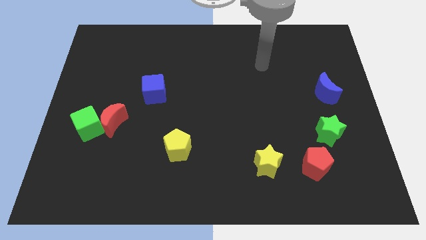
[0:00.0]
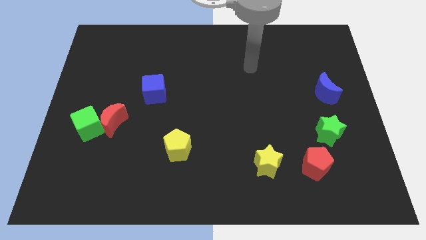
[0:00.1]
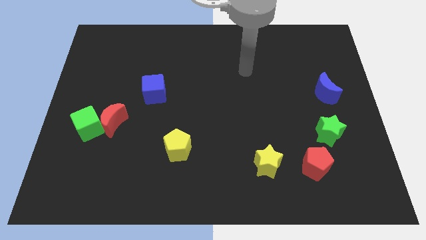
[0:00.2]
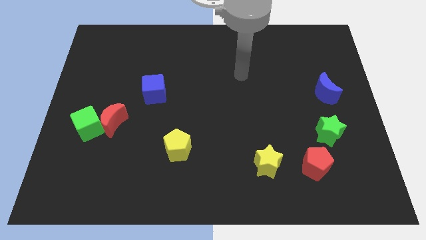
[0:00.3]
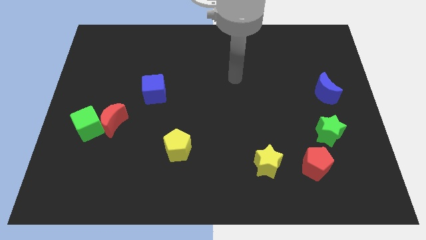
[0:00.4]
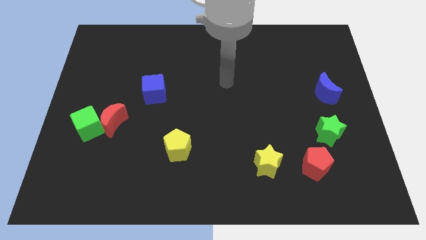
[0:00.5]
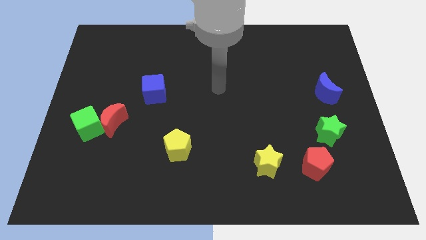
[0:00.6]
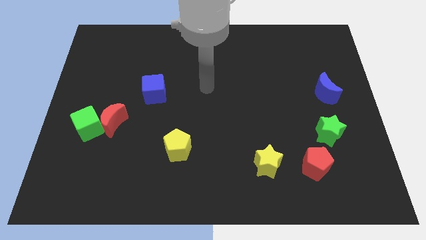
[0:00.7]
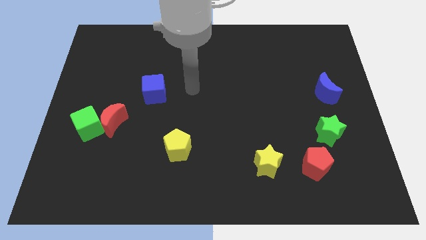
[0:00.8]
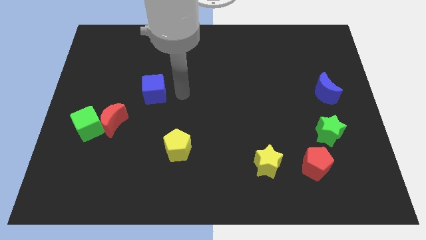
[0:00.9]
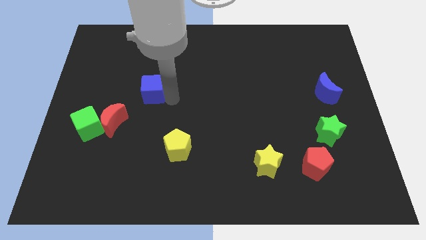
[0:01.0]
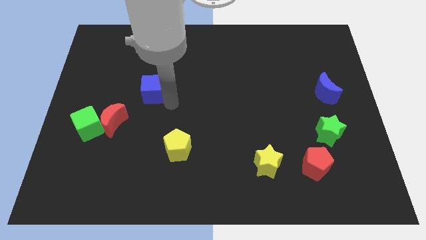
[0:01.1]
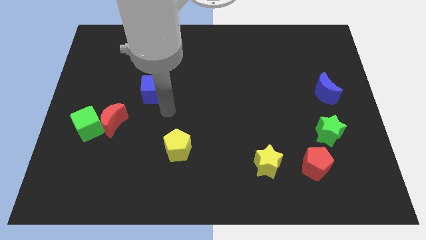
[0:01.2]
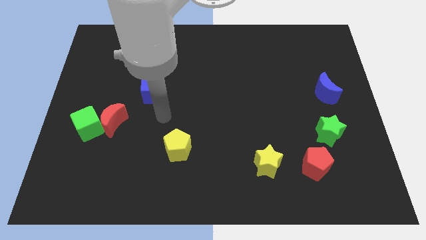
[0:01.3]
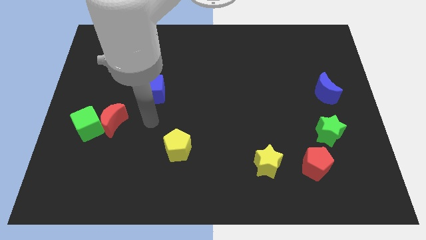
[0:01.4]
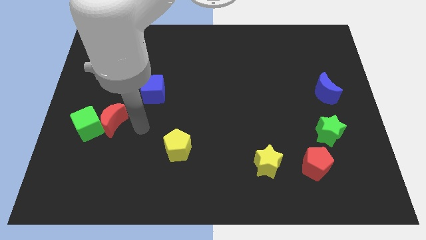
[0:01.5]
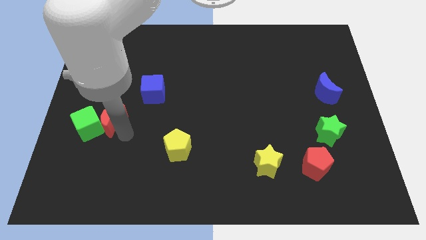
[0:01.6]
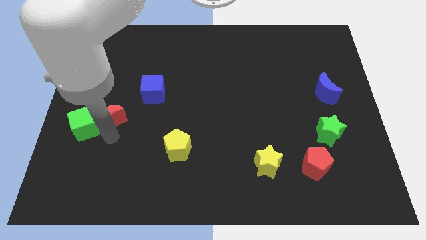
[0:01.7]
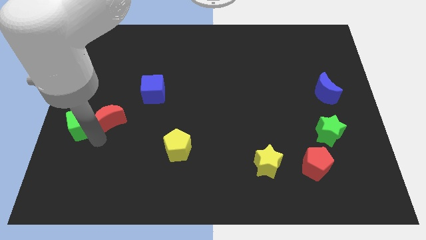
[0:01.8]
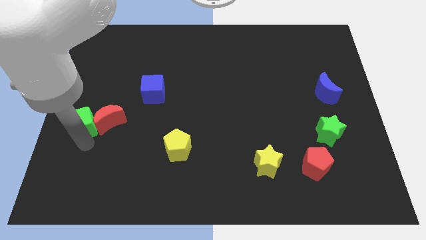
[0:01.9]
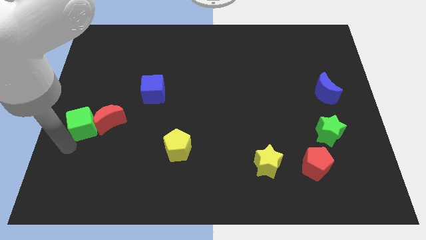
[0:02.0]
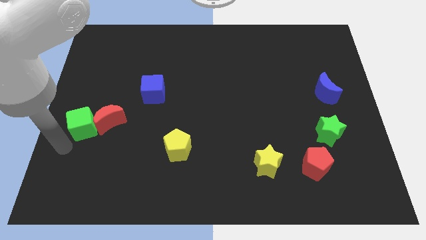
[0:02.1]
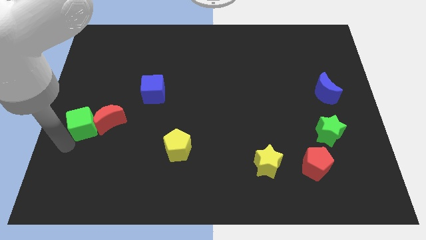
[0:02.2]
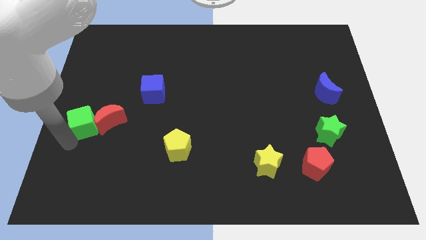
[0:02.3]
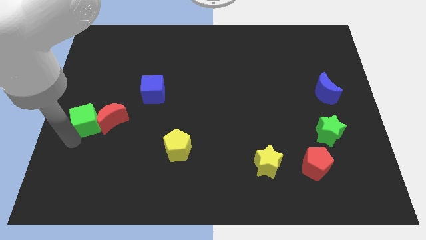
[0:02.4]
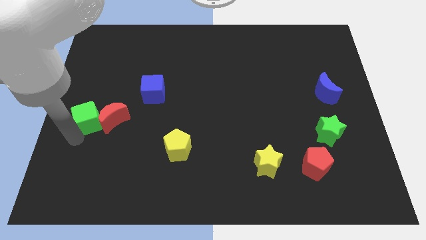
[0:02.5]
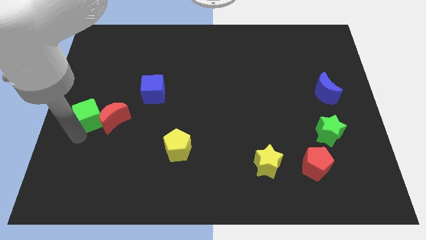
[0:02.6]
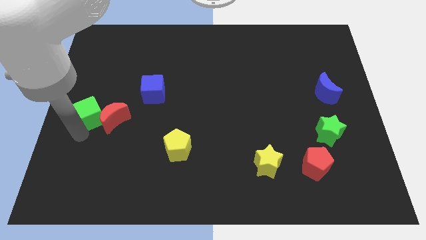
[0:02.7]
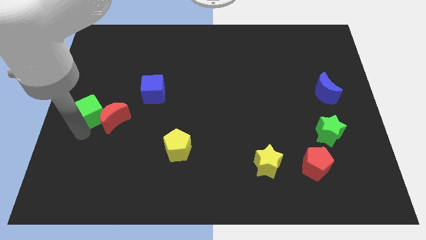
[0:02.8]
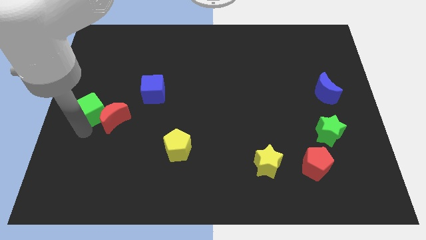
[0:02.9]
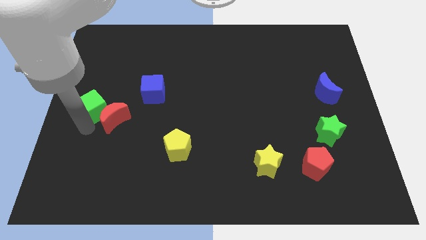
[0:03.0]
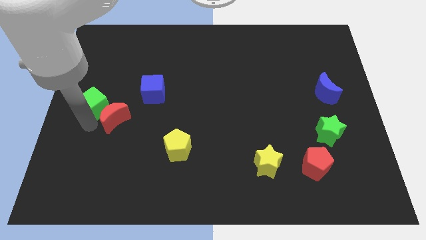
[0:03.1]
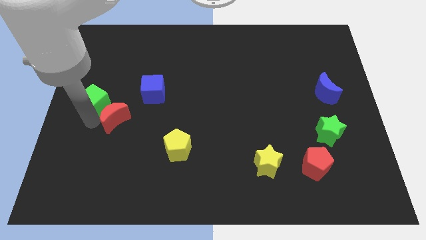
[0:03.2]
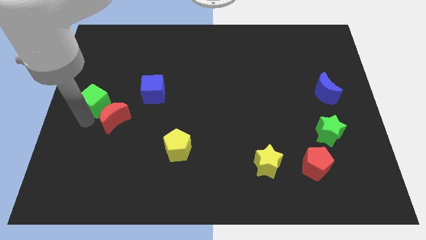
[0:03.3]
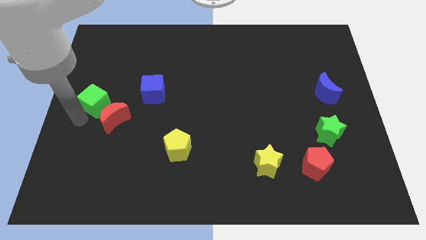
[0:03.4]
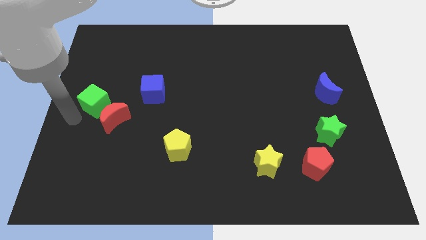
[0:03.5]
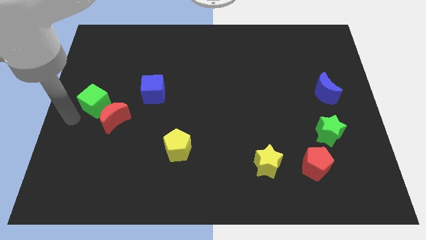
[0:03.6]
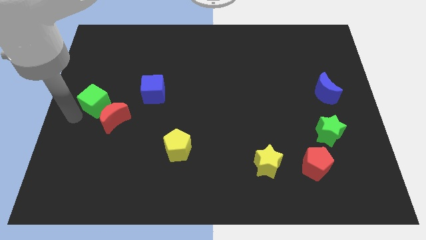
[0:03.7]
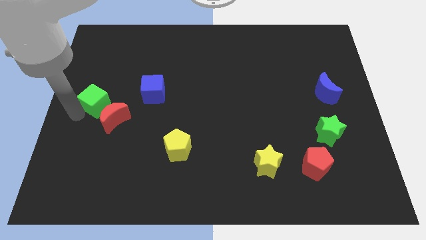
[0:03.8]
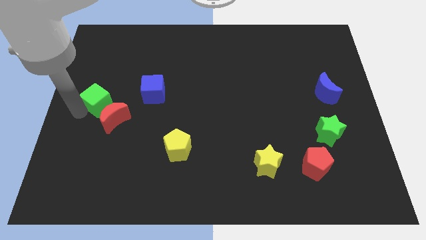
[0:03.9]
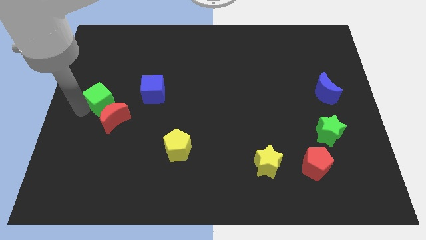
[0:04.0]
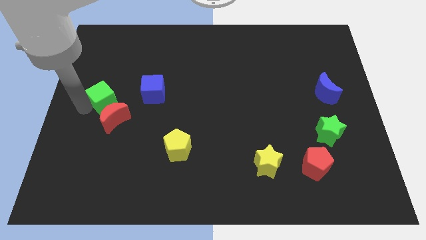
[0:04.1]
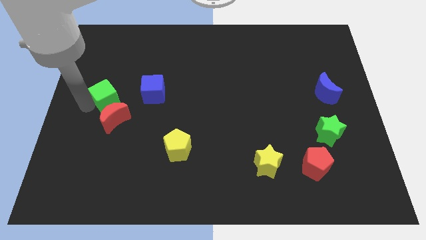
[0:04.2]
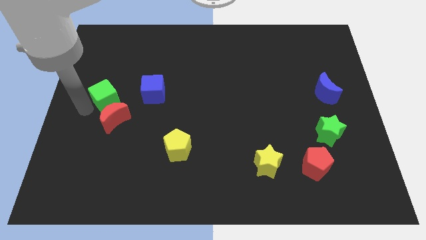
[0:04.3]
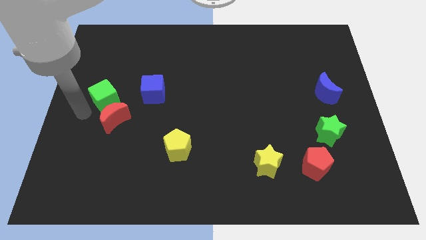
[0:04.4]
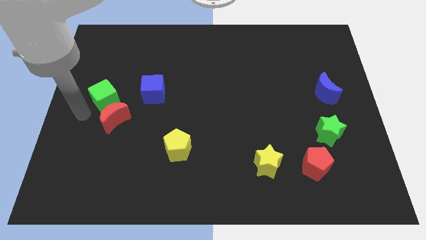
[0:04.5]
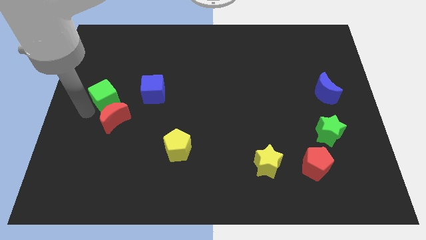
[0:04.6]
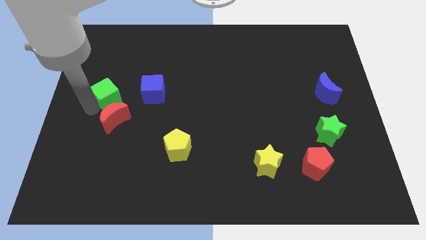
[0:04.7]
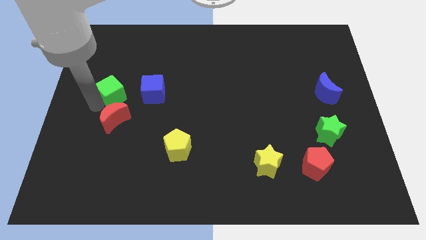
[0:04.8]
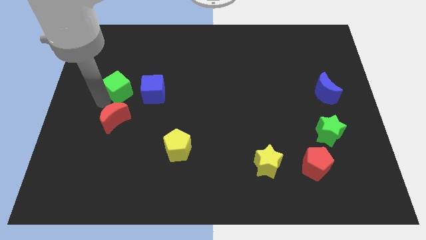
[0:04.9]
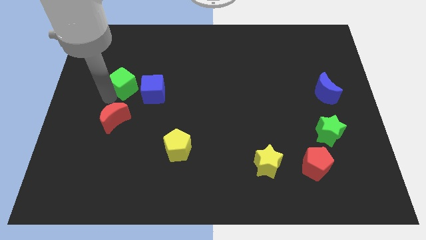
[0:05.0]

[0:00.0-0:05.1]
push the green cube to the top left of the blue cube

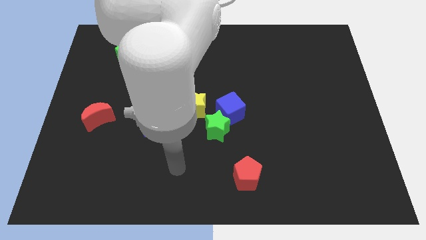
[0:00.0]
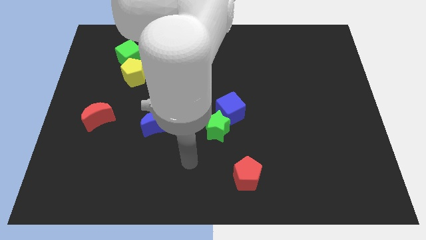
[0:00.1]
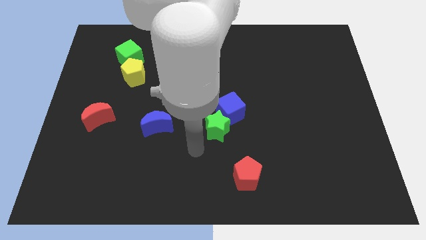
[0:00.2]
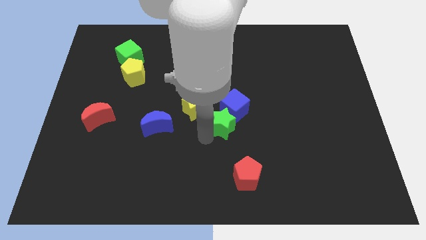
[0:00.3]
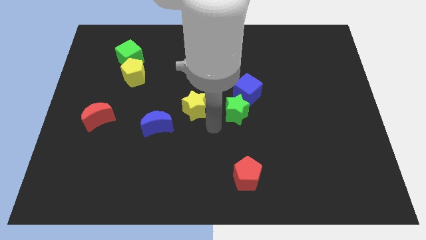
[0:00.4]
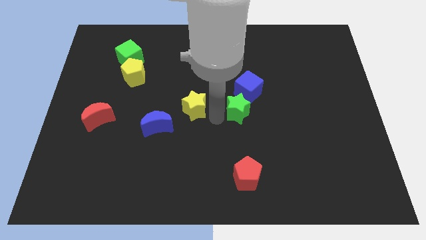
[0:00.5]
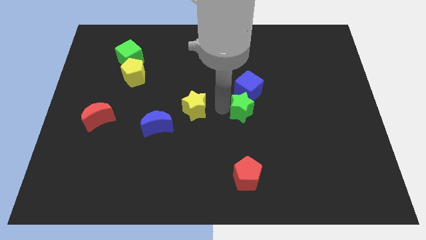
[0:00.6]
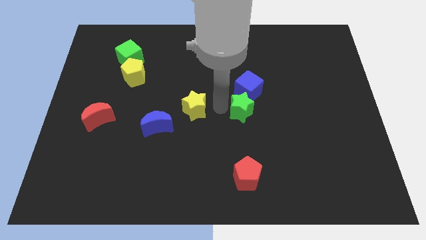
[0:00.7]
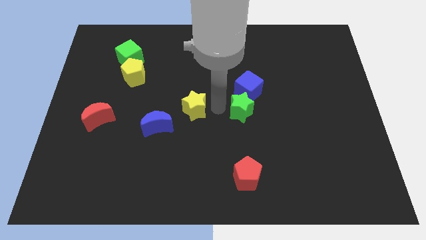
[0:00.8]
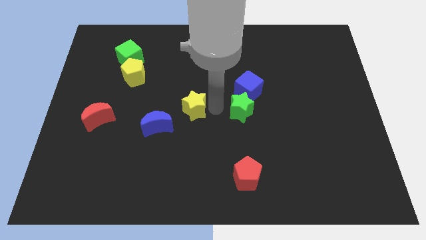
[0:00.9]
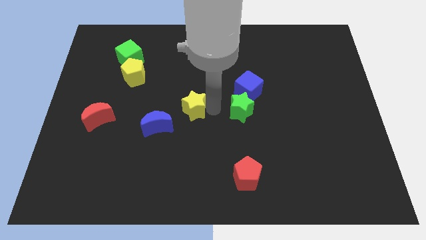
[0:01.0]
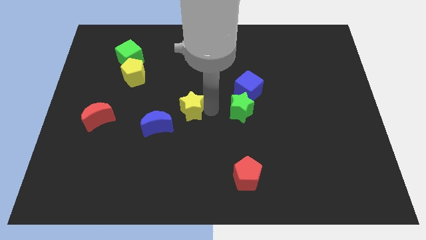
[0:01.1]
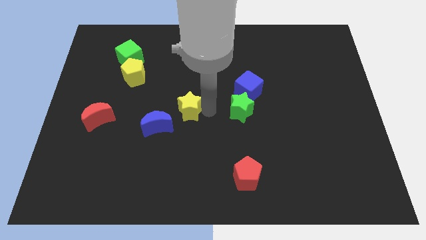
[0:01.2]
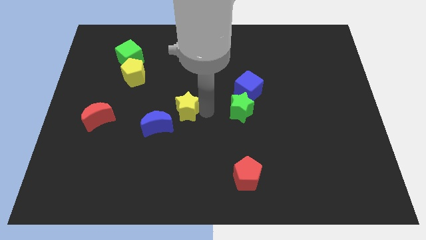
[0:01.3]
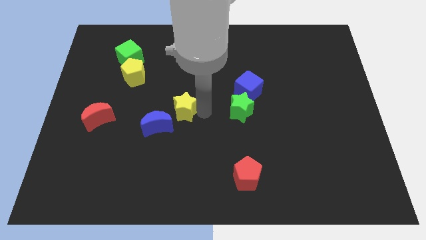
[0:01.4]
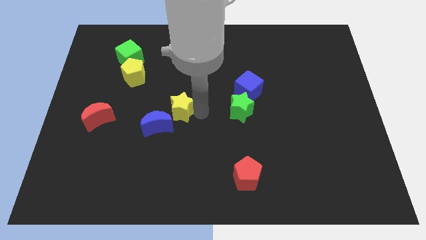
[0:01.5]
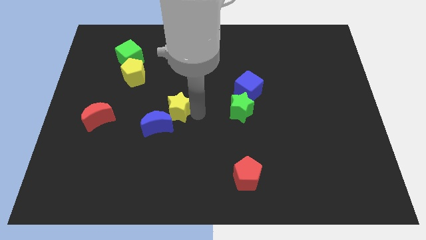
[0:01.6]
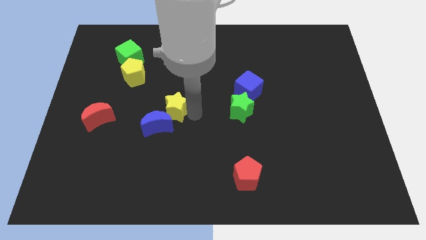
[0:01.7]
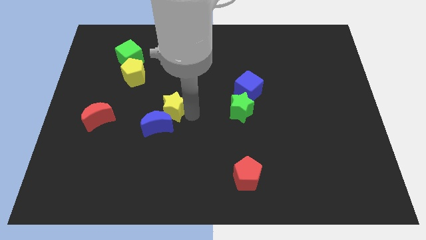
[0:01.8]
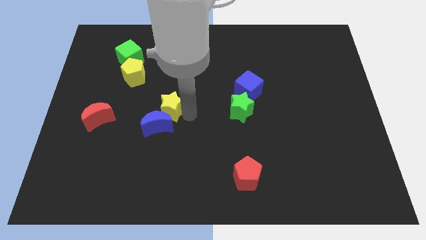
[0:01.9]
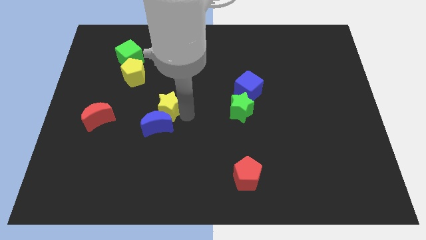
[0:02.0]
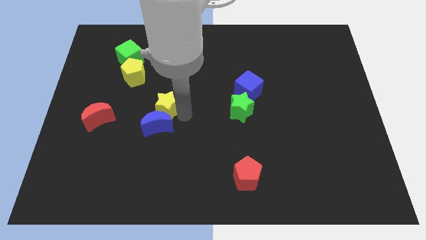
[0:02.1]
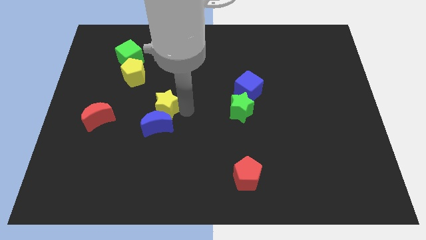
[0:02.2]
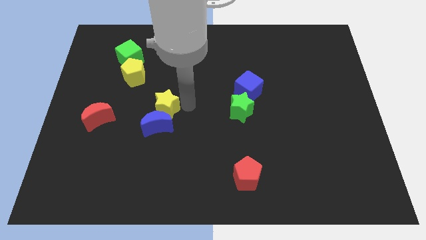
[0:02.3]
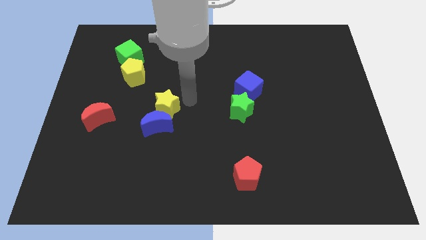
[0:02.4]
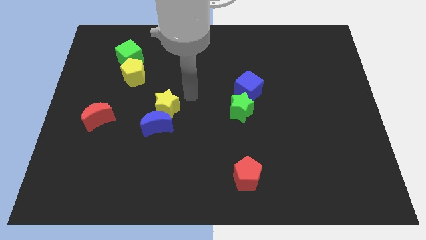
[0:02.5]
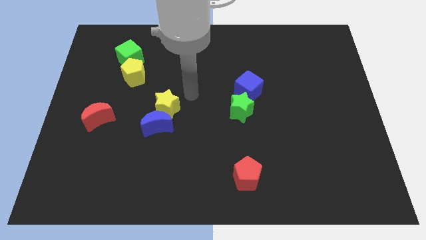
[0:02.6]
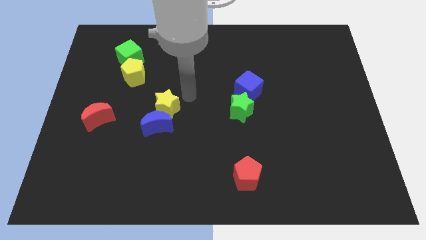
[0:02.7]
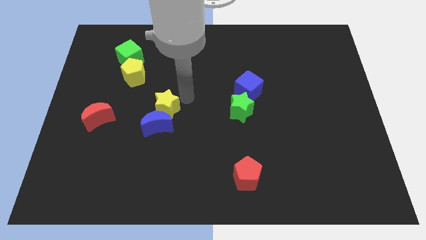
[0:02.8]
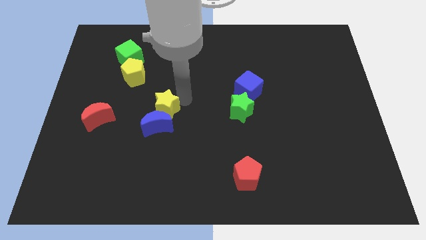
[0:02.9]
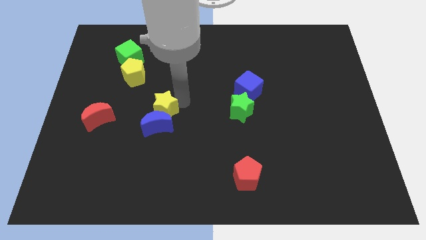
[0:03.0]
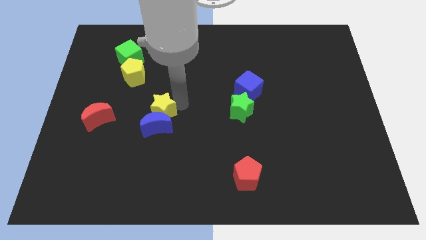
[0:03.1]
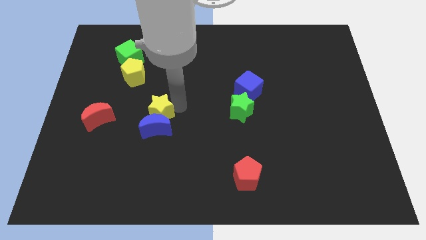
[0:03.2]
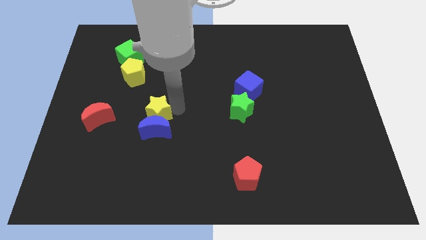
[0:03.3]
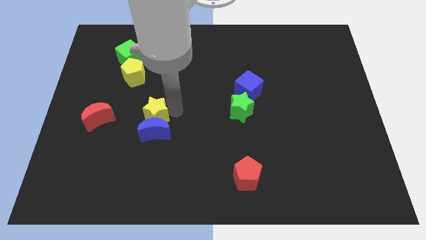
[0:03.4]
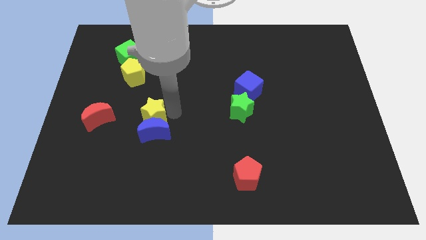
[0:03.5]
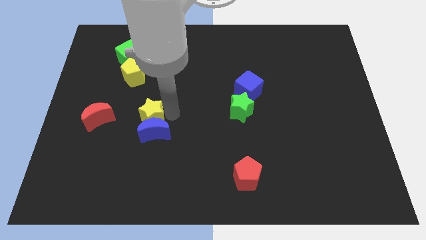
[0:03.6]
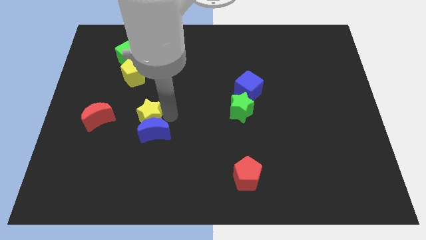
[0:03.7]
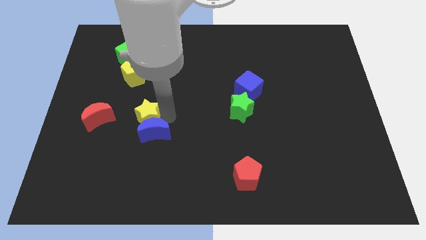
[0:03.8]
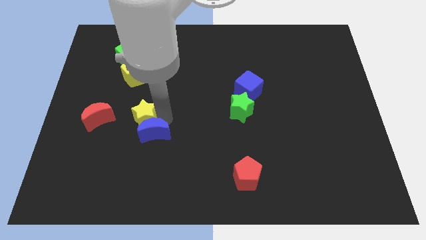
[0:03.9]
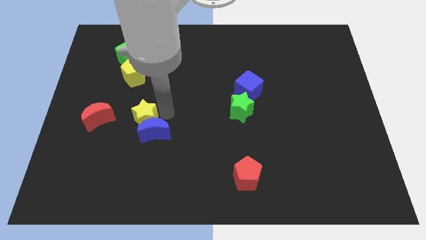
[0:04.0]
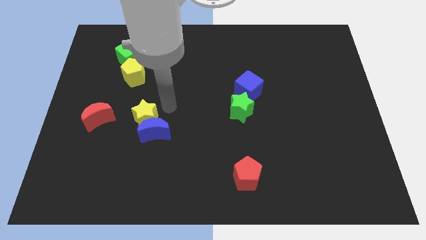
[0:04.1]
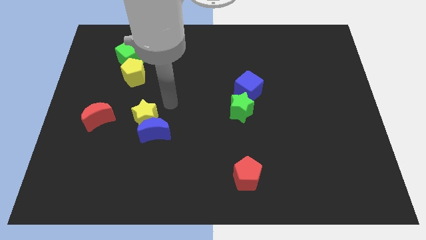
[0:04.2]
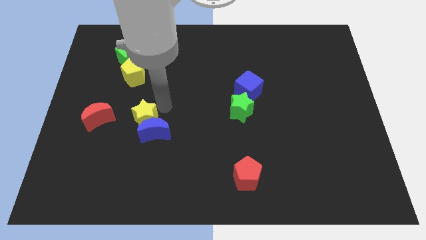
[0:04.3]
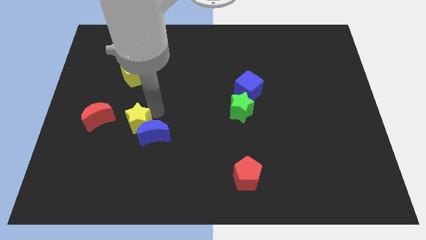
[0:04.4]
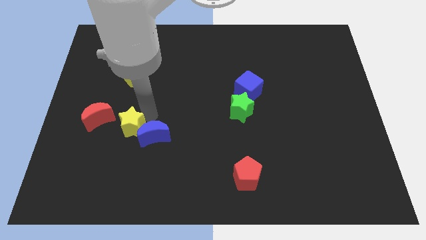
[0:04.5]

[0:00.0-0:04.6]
move the yellow star to the bottom right of the red moon
